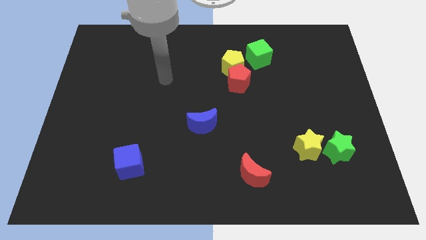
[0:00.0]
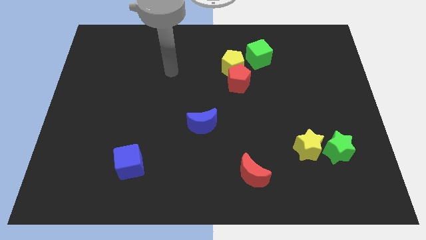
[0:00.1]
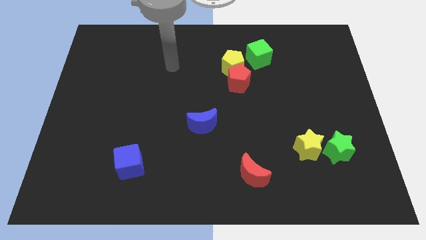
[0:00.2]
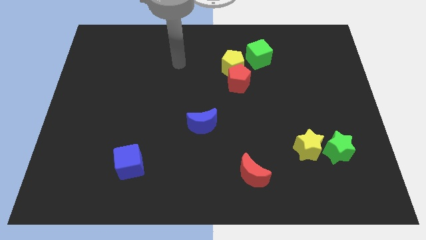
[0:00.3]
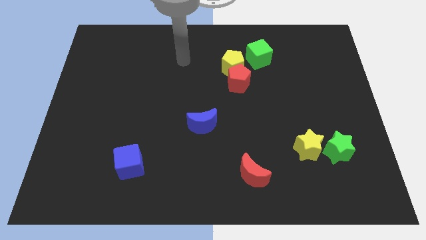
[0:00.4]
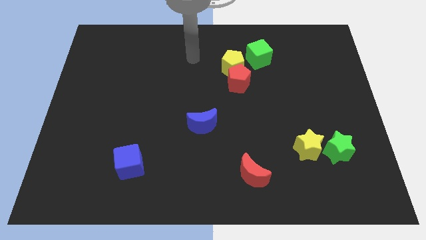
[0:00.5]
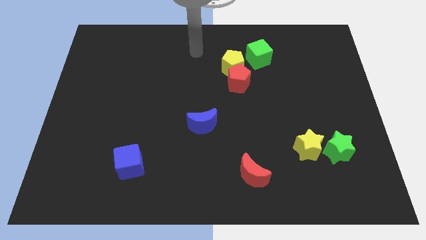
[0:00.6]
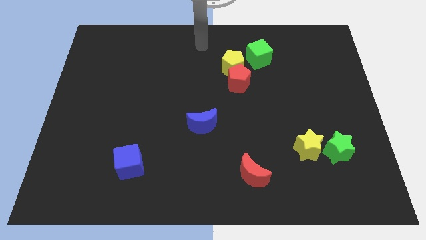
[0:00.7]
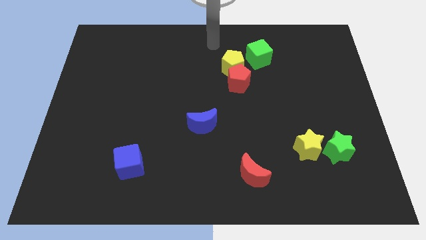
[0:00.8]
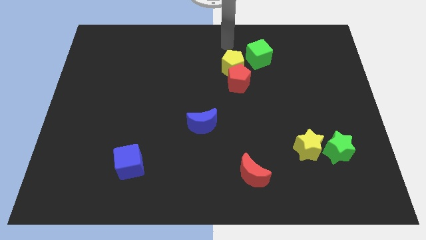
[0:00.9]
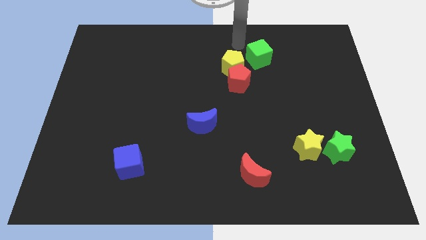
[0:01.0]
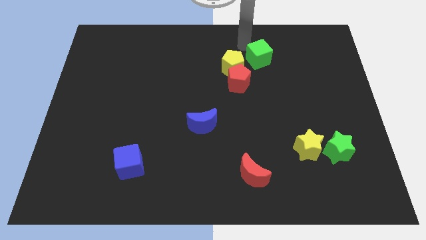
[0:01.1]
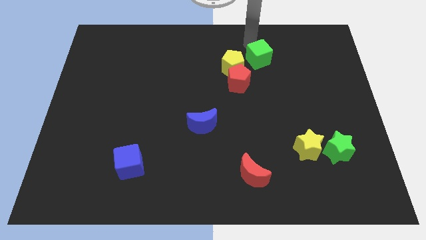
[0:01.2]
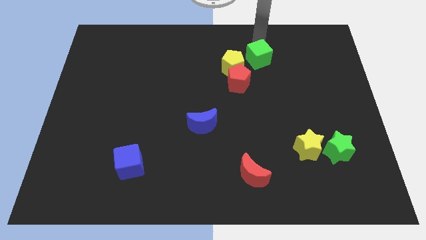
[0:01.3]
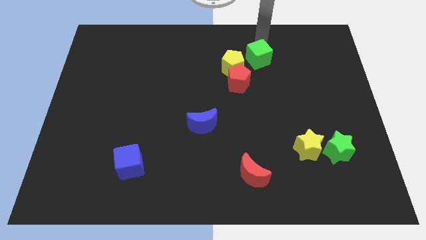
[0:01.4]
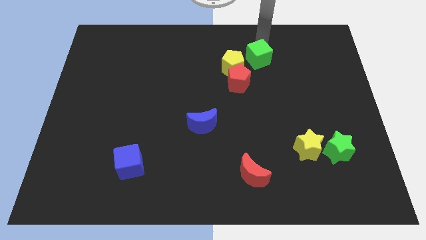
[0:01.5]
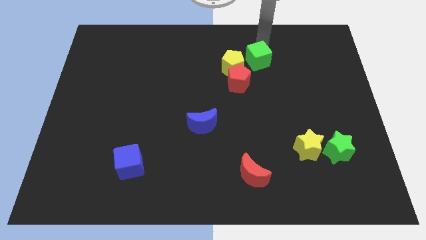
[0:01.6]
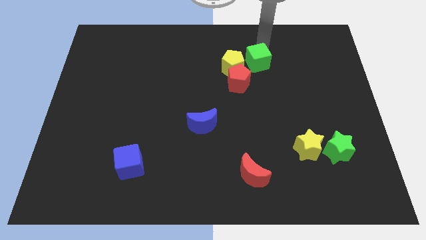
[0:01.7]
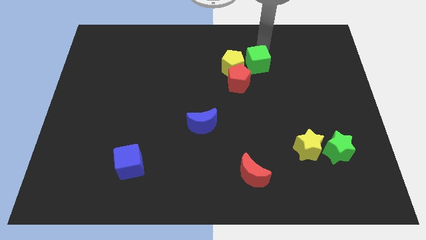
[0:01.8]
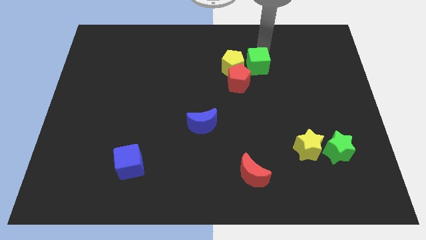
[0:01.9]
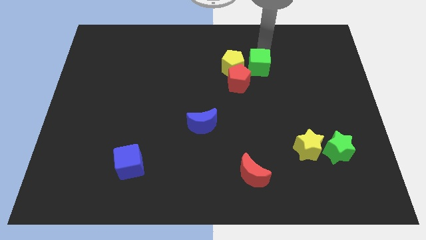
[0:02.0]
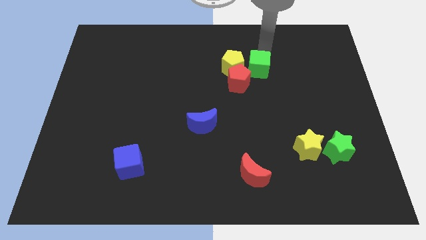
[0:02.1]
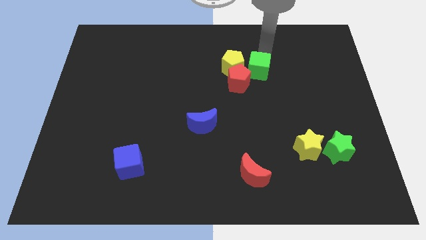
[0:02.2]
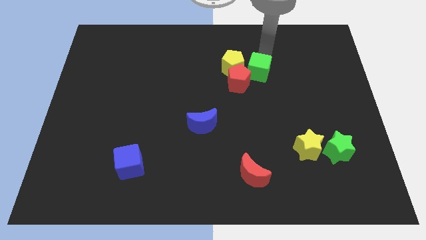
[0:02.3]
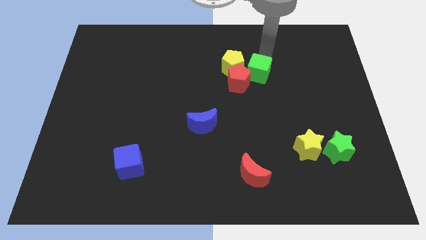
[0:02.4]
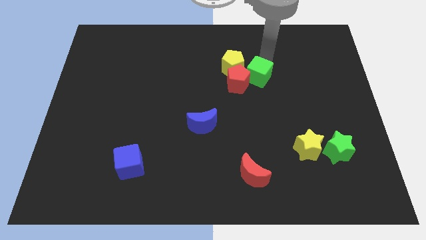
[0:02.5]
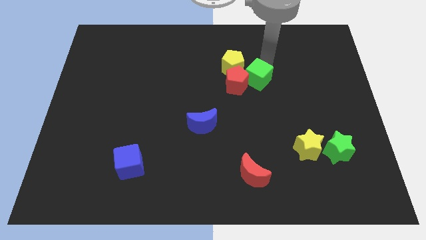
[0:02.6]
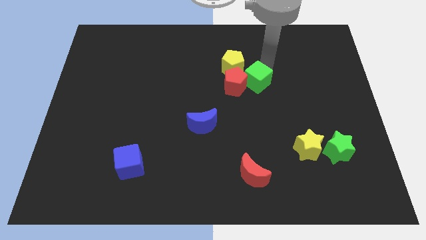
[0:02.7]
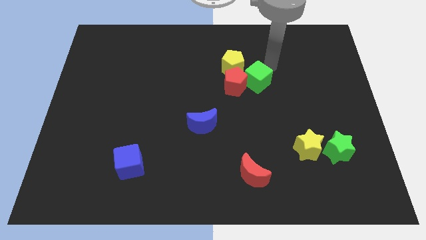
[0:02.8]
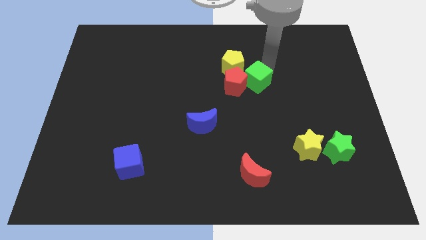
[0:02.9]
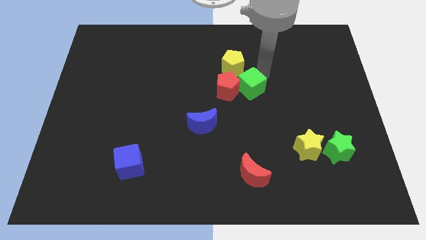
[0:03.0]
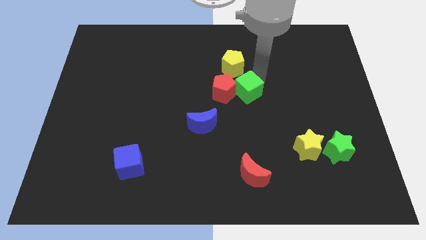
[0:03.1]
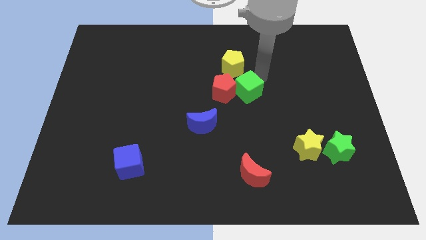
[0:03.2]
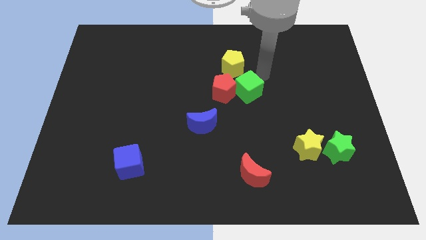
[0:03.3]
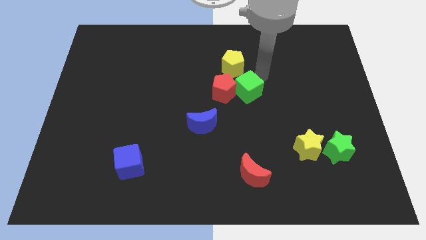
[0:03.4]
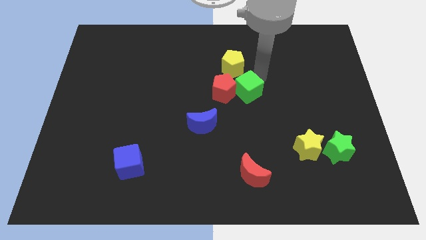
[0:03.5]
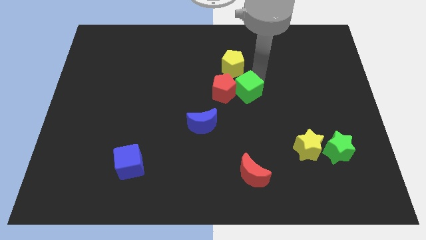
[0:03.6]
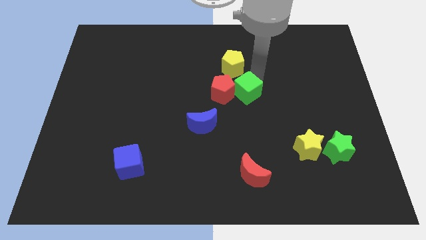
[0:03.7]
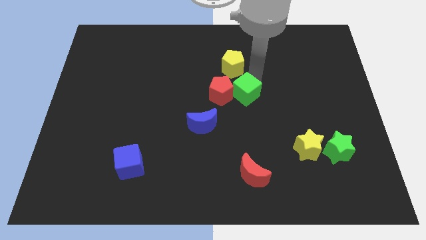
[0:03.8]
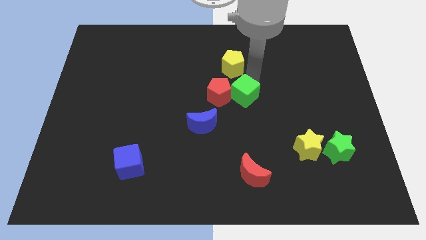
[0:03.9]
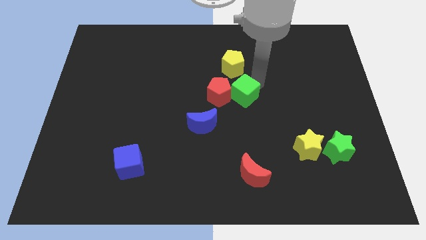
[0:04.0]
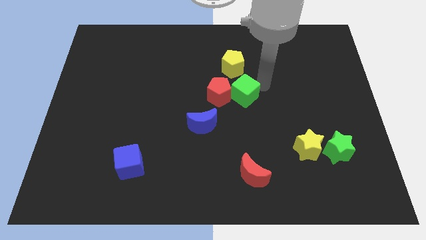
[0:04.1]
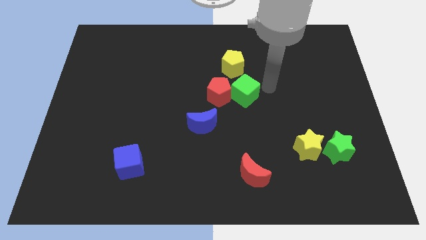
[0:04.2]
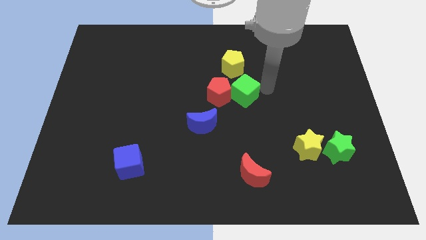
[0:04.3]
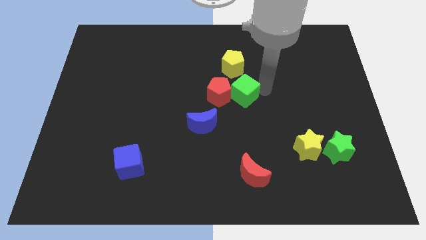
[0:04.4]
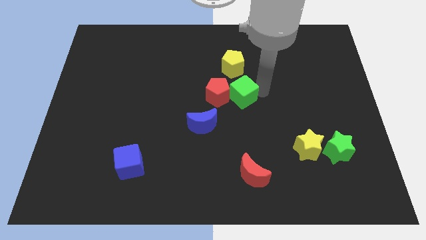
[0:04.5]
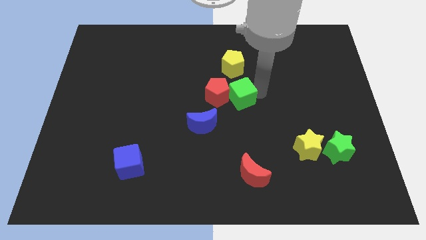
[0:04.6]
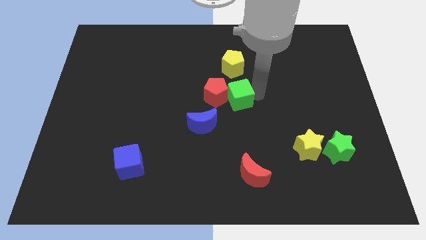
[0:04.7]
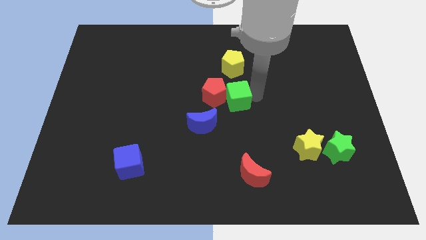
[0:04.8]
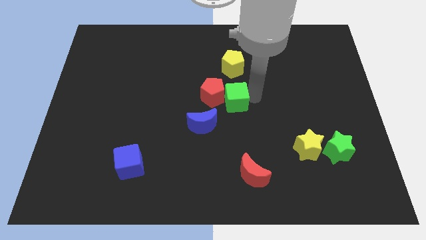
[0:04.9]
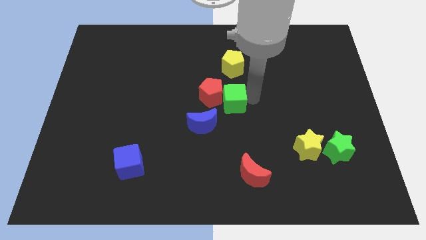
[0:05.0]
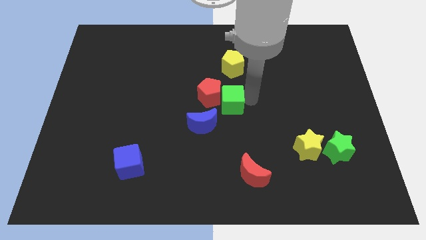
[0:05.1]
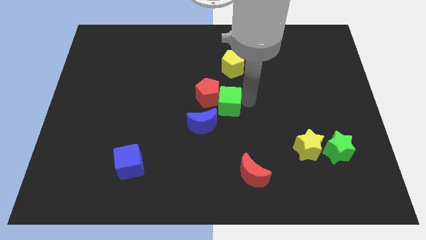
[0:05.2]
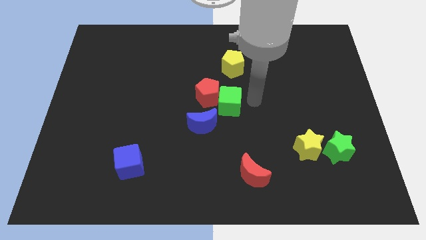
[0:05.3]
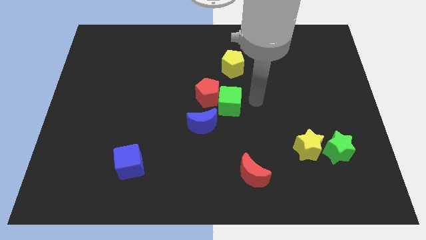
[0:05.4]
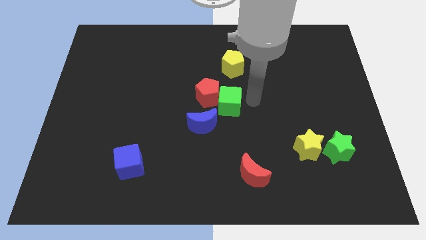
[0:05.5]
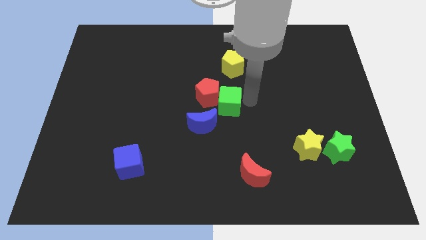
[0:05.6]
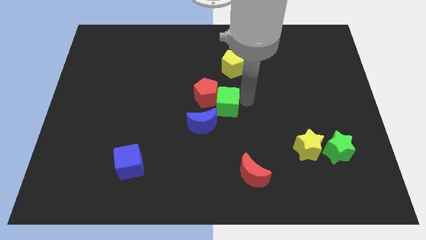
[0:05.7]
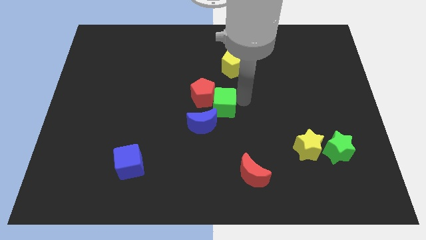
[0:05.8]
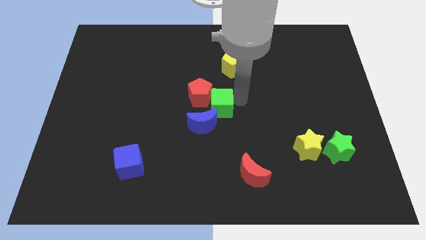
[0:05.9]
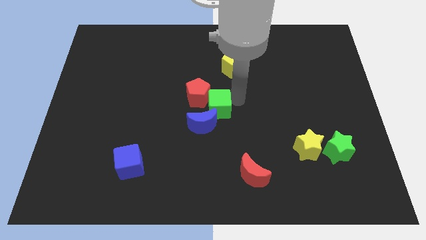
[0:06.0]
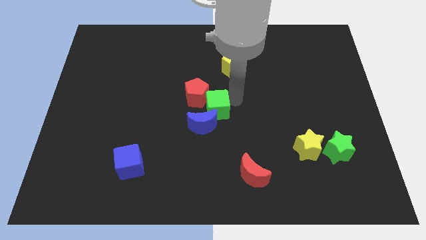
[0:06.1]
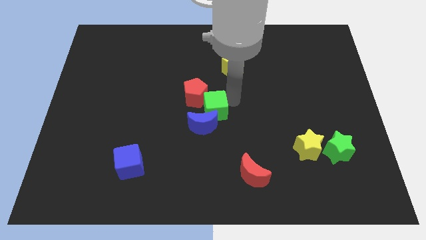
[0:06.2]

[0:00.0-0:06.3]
move the green cube diagonally down and left

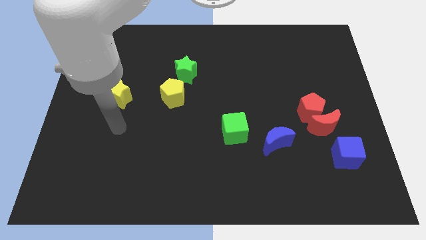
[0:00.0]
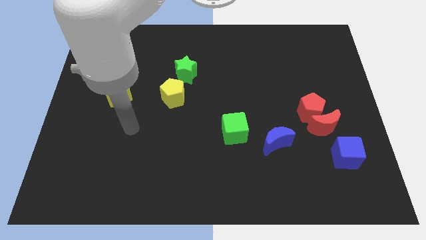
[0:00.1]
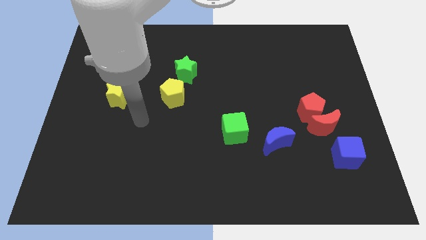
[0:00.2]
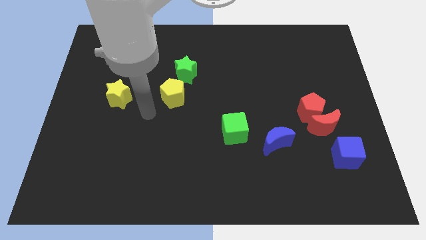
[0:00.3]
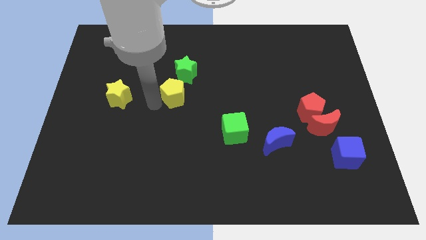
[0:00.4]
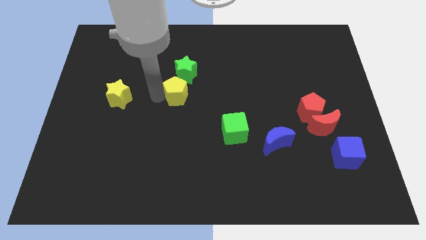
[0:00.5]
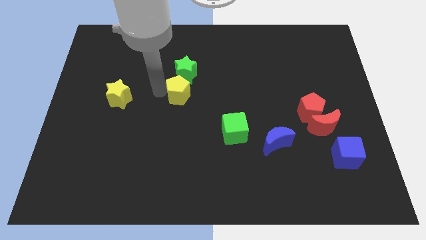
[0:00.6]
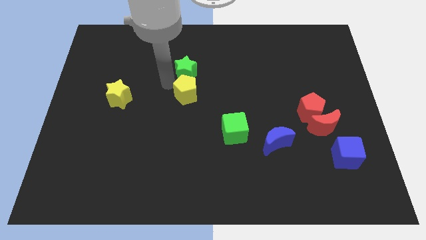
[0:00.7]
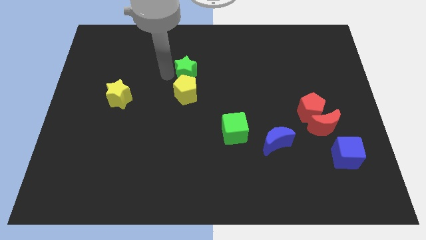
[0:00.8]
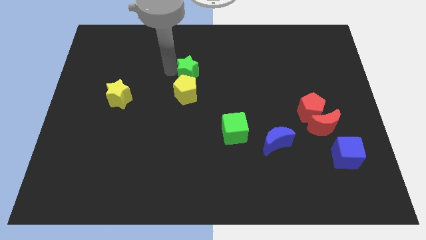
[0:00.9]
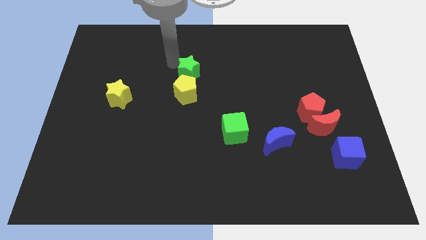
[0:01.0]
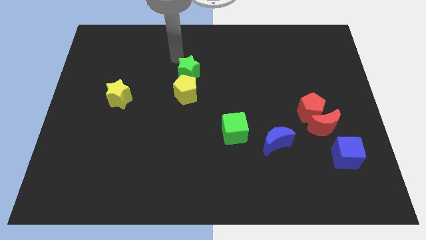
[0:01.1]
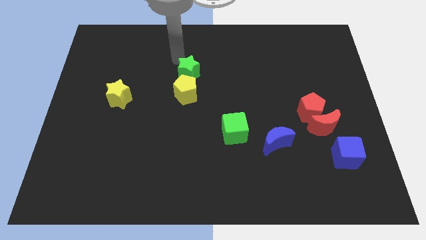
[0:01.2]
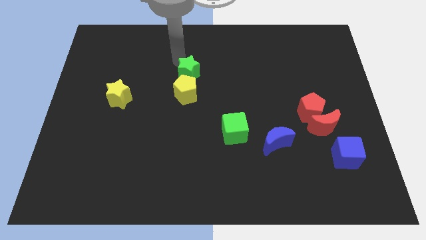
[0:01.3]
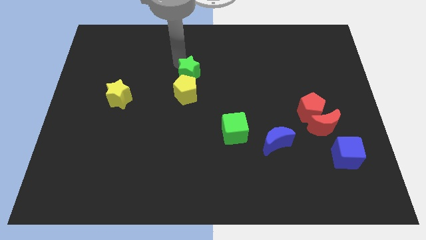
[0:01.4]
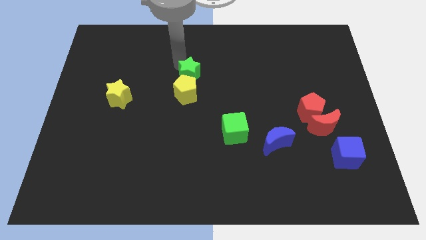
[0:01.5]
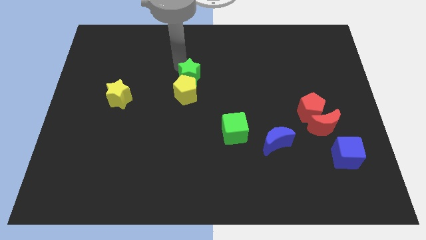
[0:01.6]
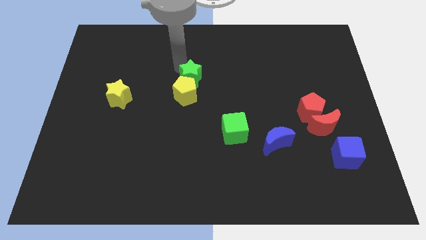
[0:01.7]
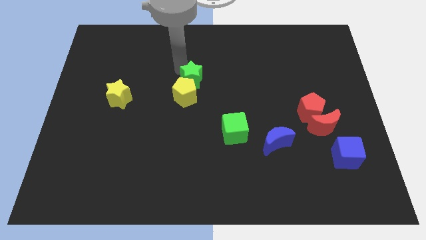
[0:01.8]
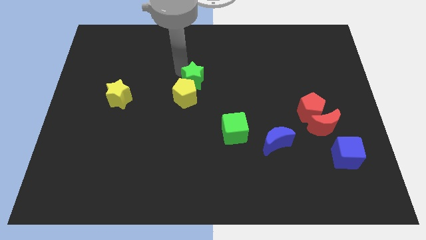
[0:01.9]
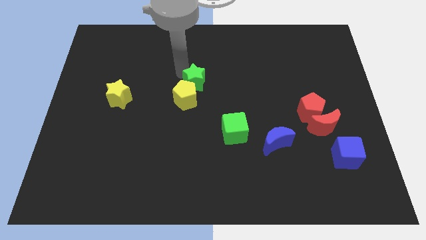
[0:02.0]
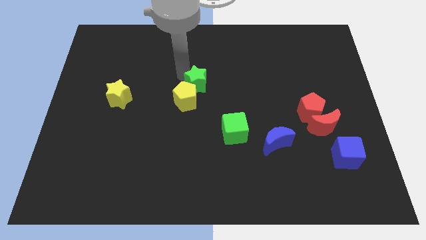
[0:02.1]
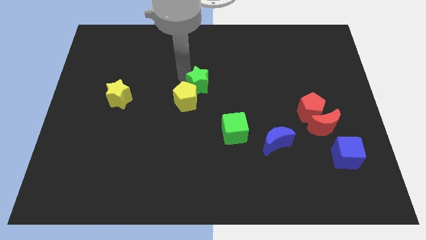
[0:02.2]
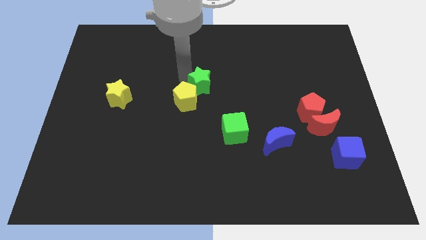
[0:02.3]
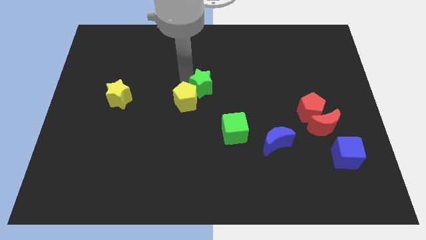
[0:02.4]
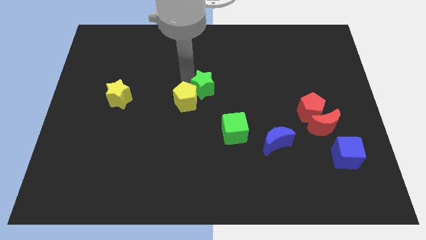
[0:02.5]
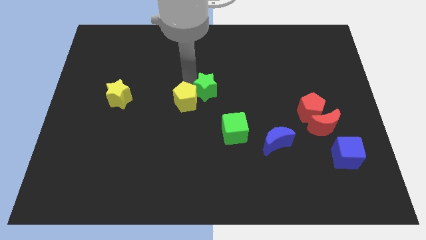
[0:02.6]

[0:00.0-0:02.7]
slightly slide the green star down and right diagonally
